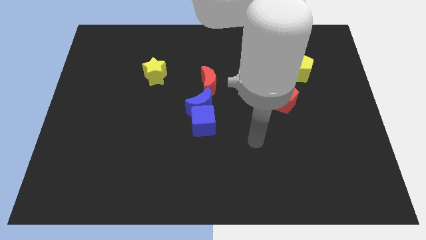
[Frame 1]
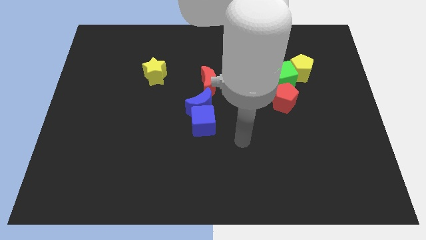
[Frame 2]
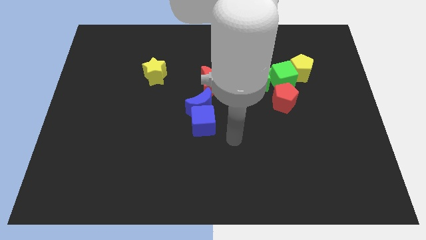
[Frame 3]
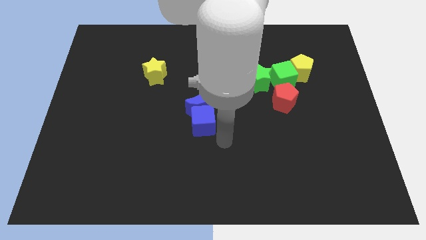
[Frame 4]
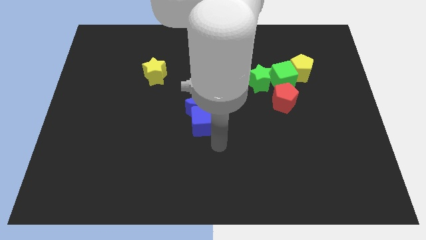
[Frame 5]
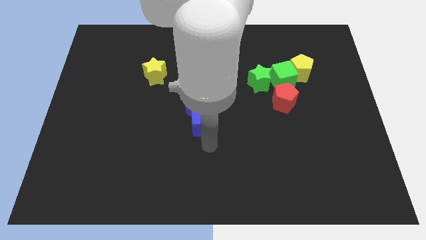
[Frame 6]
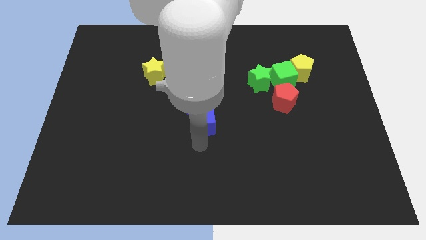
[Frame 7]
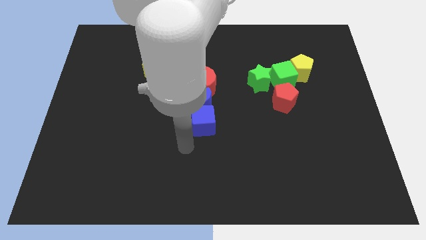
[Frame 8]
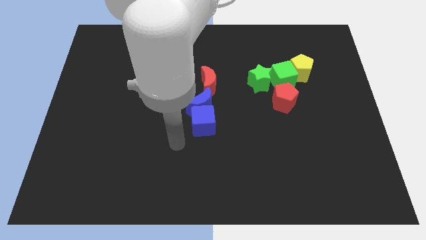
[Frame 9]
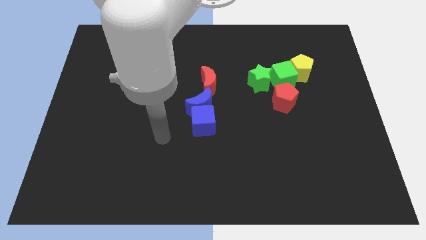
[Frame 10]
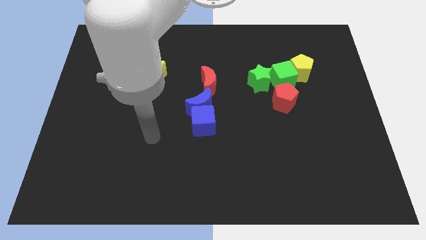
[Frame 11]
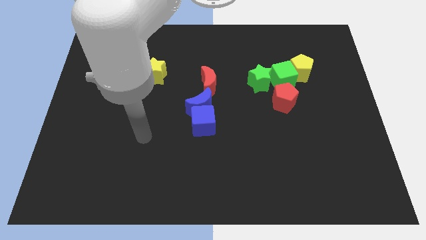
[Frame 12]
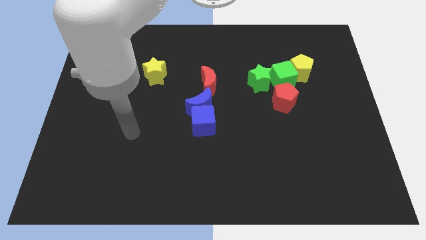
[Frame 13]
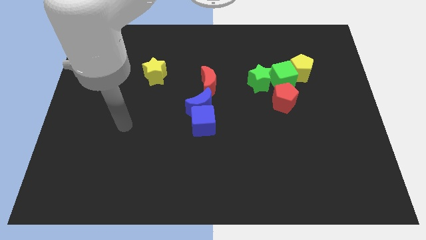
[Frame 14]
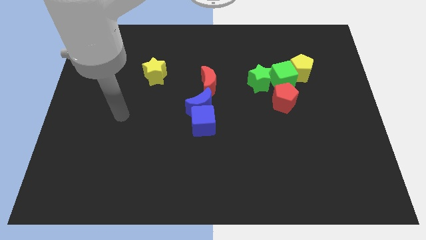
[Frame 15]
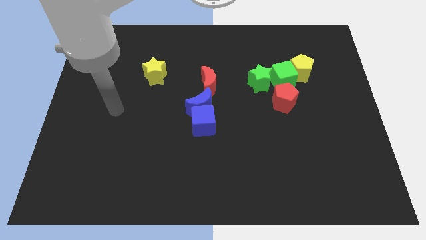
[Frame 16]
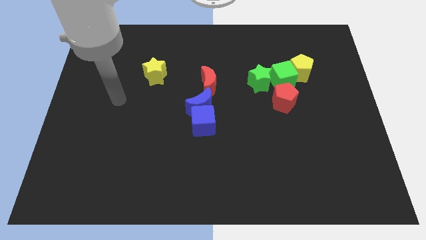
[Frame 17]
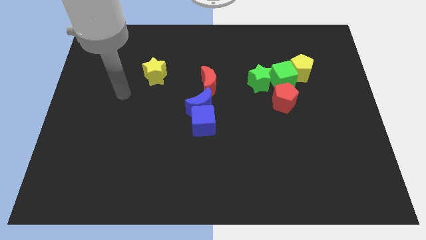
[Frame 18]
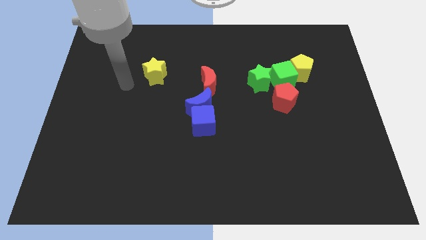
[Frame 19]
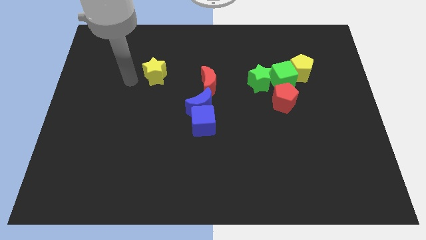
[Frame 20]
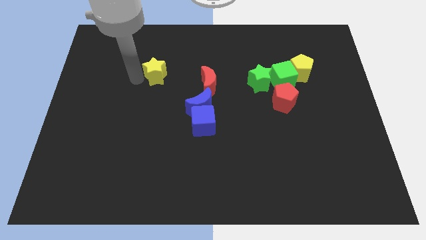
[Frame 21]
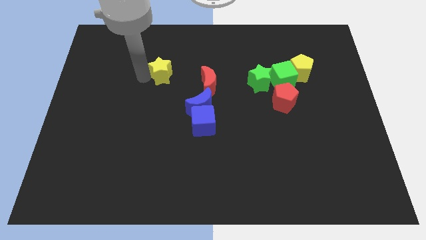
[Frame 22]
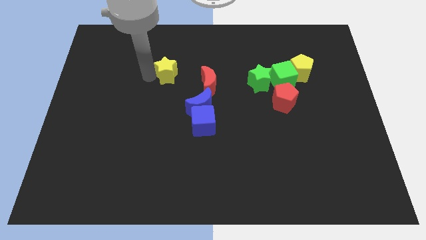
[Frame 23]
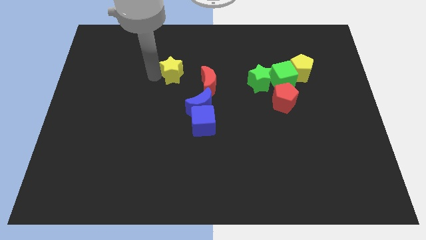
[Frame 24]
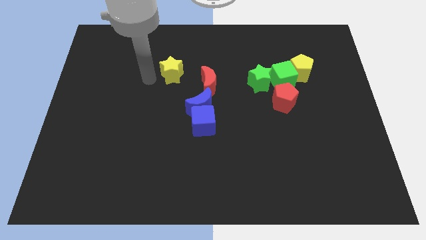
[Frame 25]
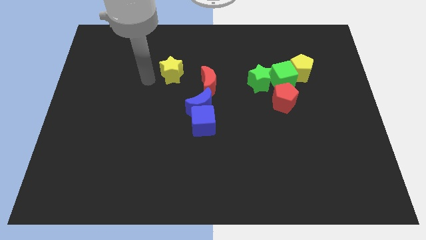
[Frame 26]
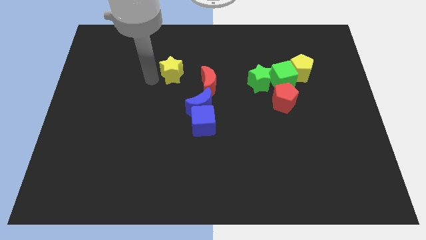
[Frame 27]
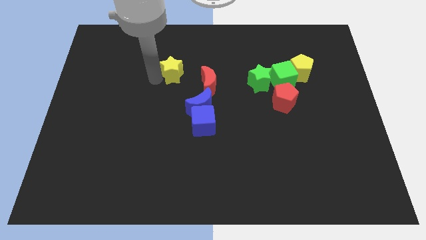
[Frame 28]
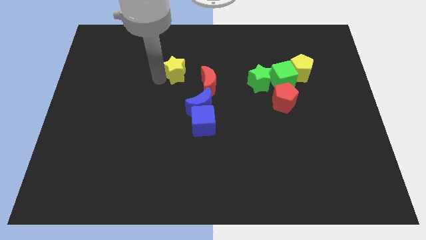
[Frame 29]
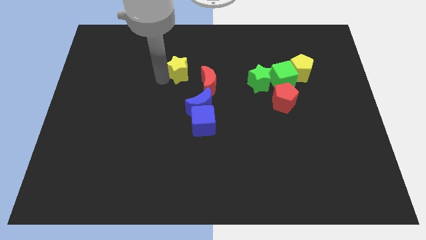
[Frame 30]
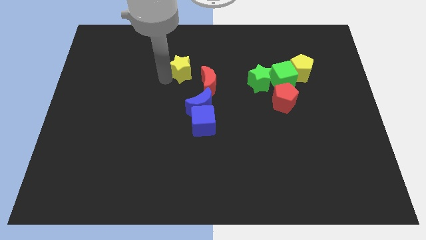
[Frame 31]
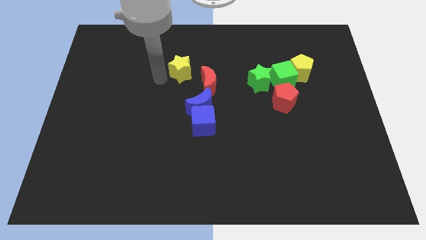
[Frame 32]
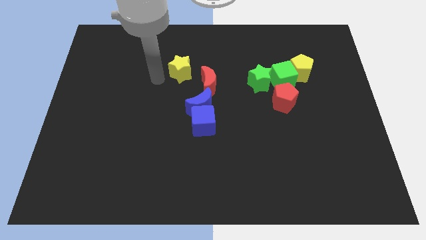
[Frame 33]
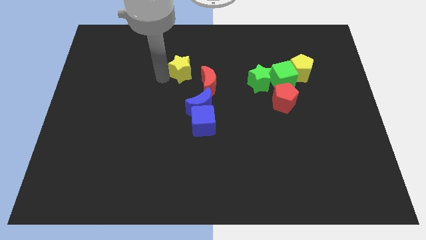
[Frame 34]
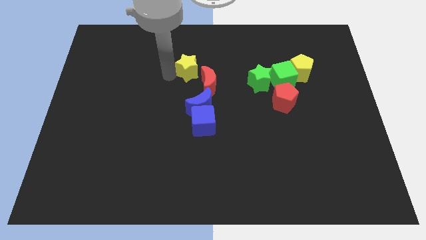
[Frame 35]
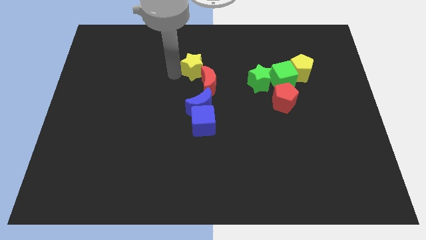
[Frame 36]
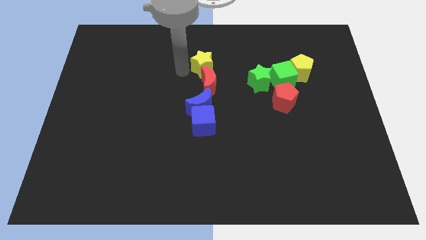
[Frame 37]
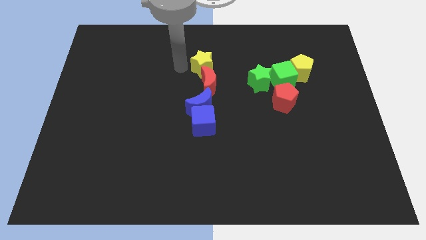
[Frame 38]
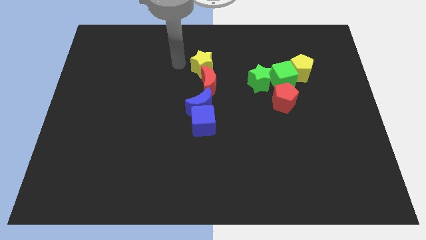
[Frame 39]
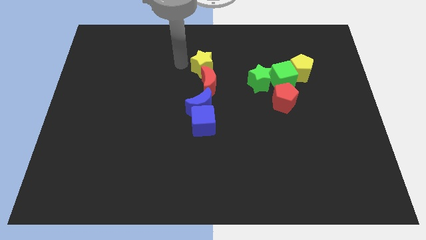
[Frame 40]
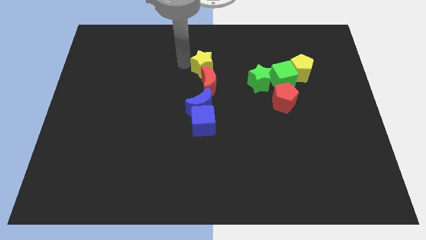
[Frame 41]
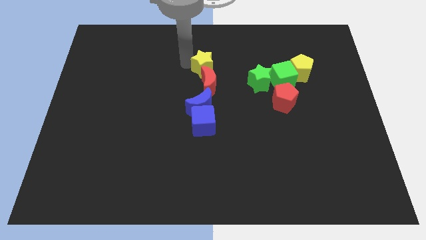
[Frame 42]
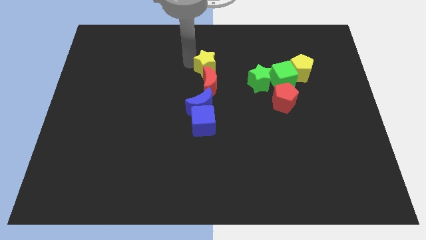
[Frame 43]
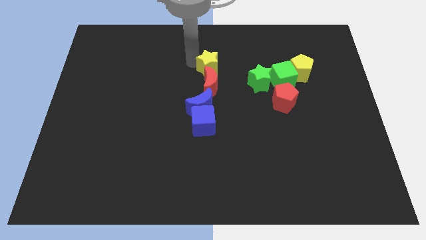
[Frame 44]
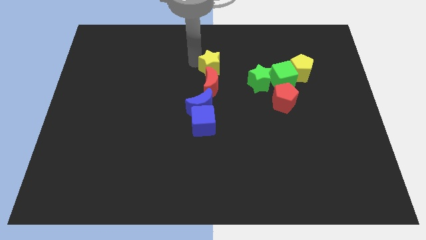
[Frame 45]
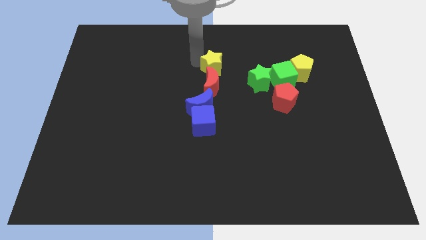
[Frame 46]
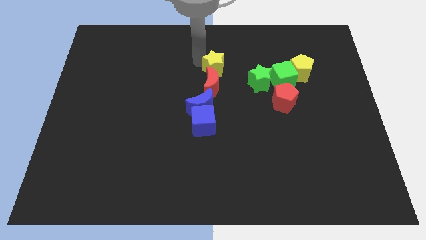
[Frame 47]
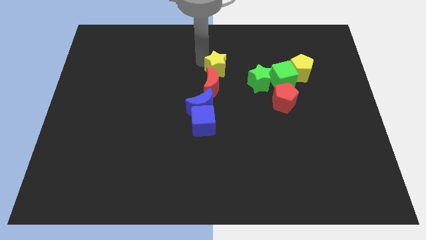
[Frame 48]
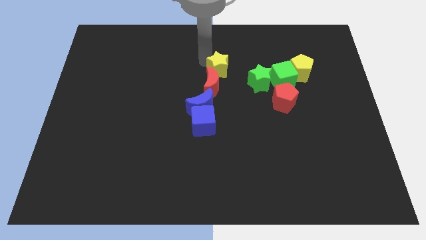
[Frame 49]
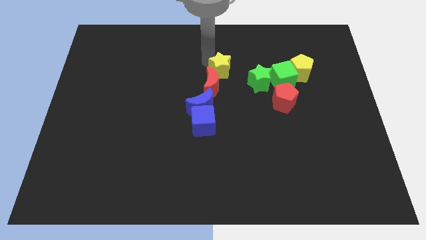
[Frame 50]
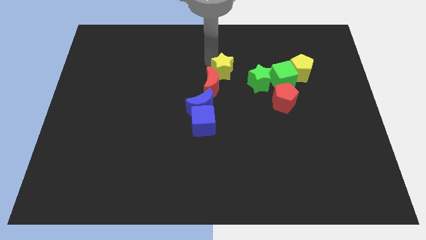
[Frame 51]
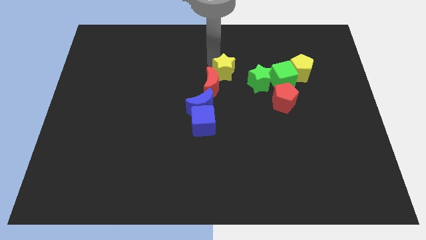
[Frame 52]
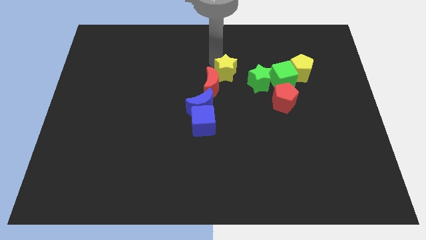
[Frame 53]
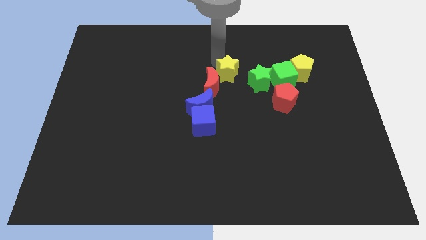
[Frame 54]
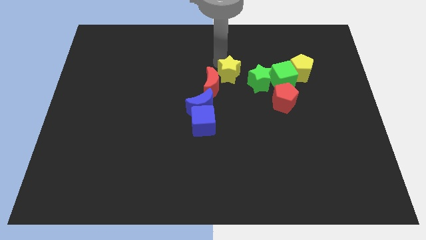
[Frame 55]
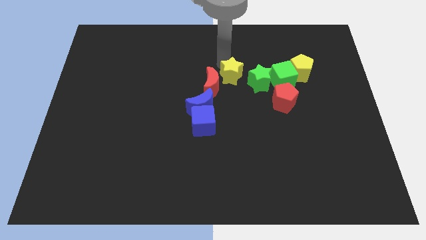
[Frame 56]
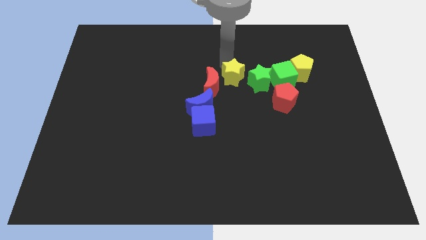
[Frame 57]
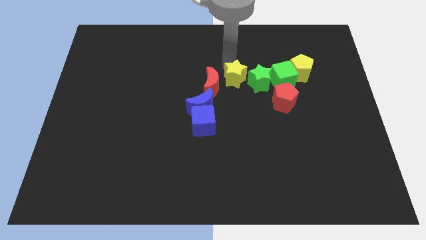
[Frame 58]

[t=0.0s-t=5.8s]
put the yellow star close to the green star

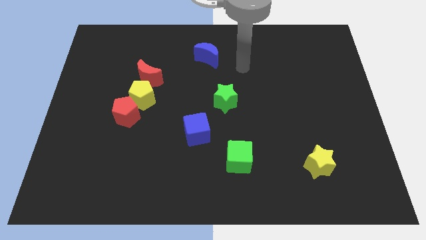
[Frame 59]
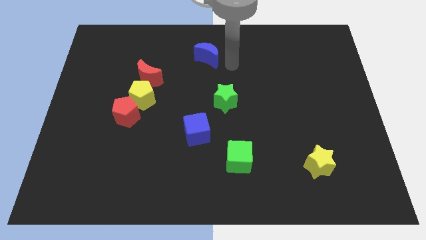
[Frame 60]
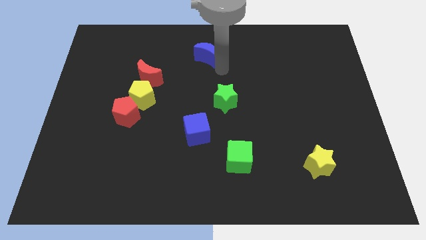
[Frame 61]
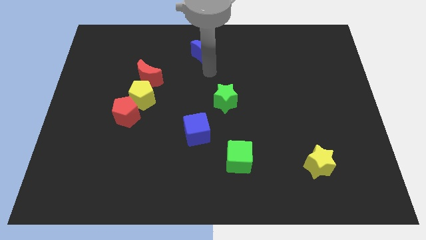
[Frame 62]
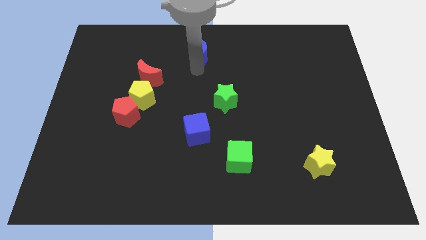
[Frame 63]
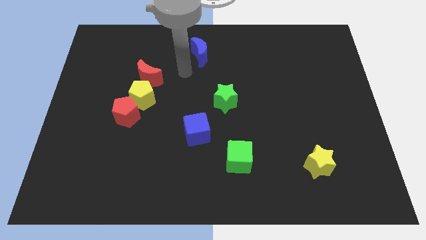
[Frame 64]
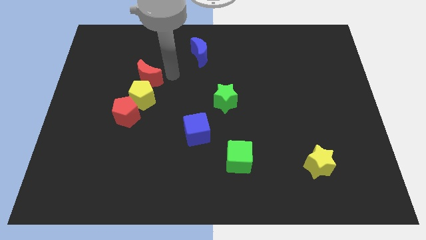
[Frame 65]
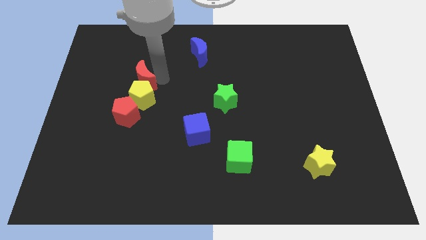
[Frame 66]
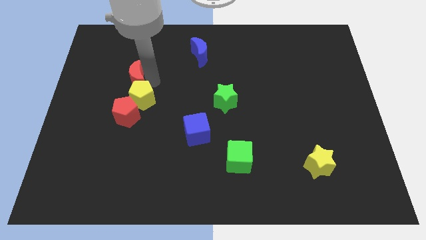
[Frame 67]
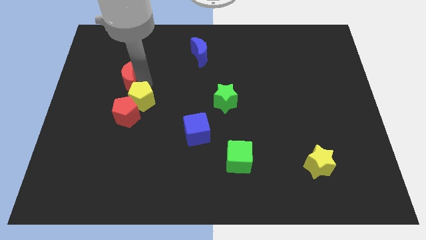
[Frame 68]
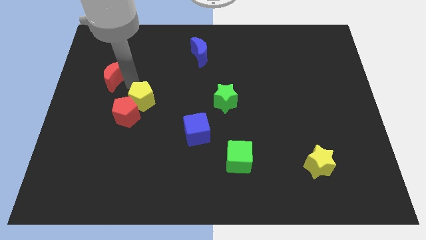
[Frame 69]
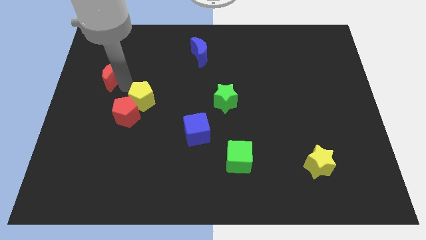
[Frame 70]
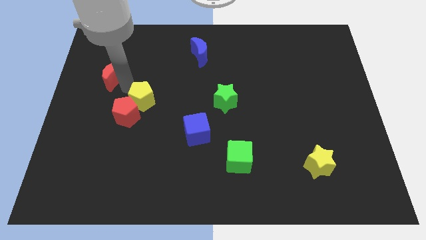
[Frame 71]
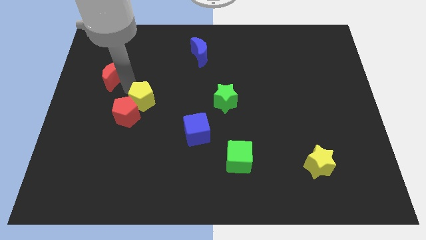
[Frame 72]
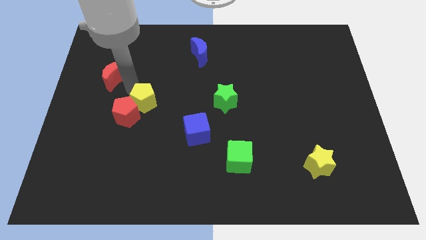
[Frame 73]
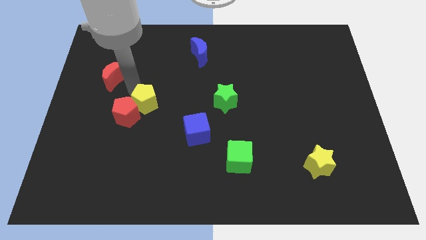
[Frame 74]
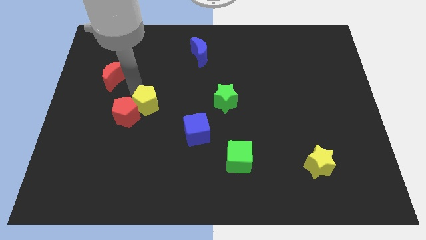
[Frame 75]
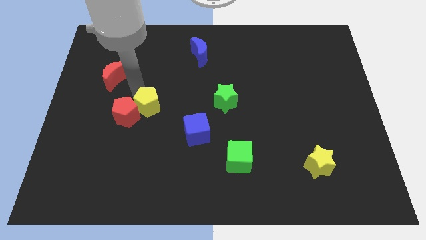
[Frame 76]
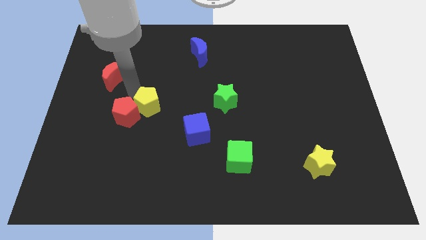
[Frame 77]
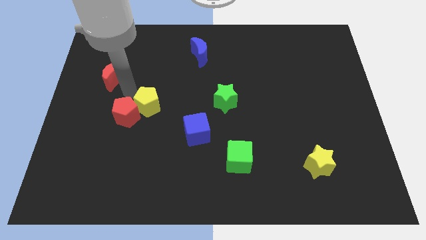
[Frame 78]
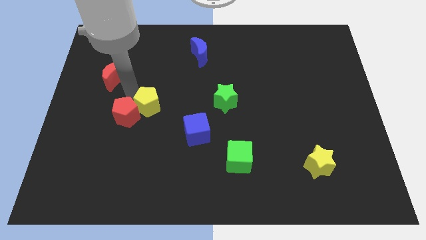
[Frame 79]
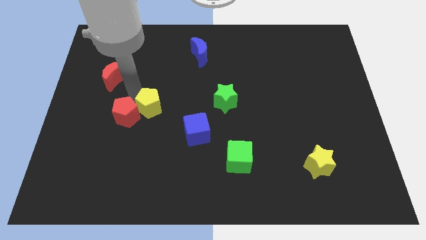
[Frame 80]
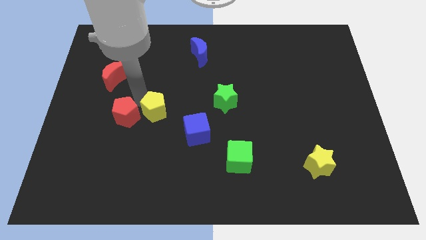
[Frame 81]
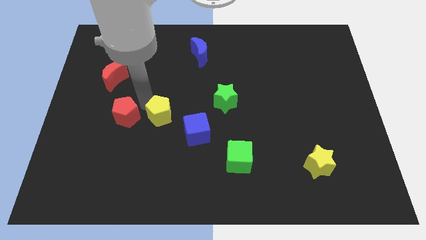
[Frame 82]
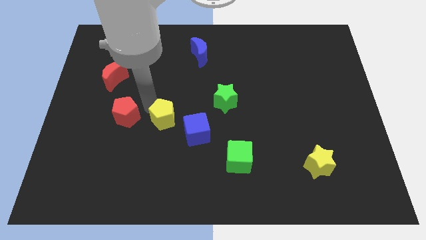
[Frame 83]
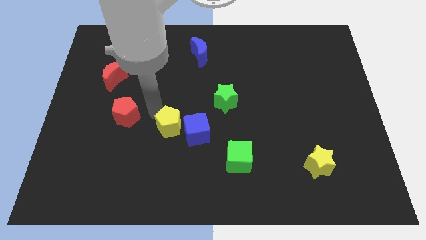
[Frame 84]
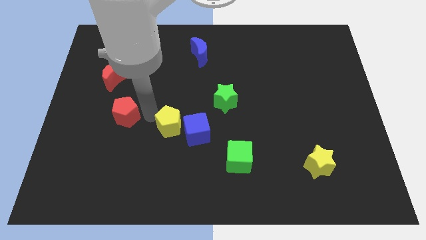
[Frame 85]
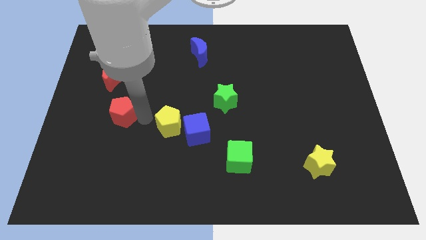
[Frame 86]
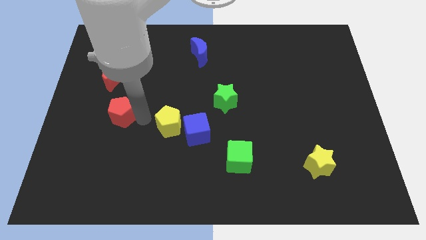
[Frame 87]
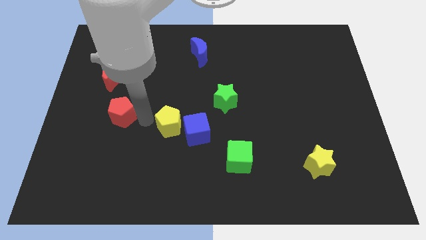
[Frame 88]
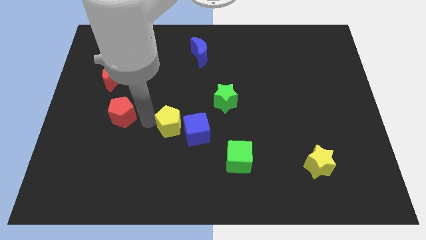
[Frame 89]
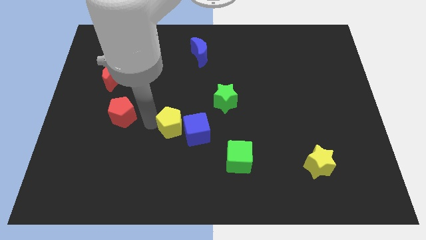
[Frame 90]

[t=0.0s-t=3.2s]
move the yellow pentagon towards the blue cube
